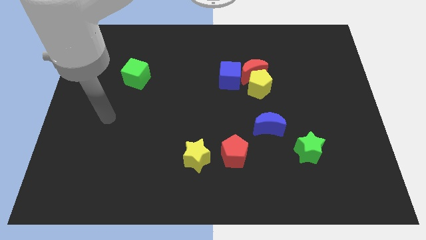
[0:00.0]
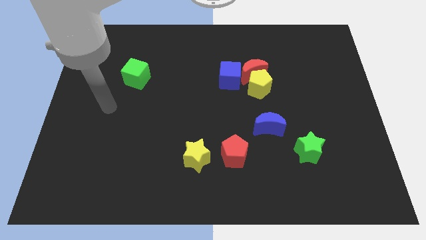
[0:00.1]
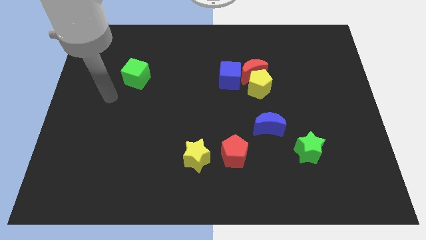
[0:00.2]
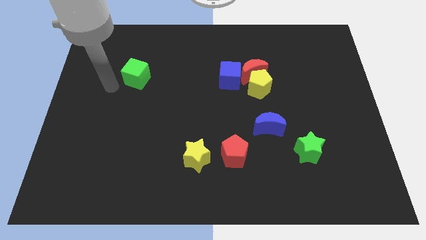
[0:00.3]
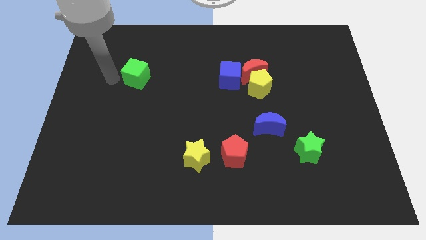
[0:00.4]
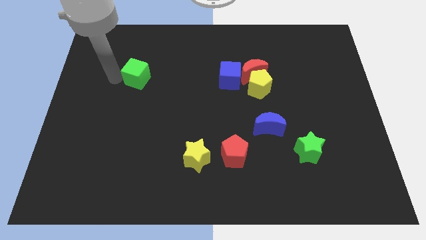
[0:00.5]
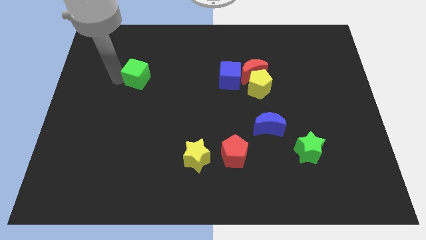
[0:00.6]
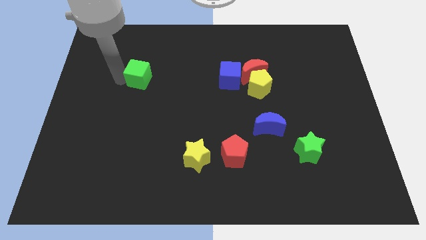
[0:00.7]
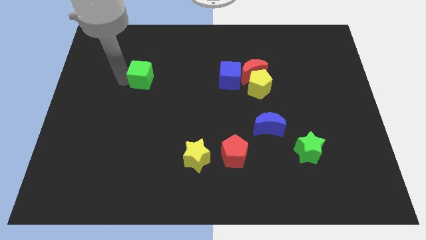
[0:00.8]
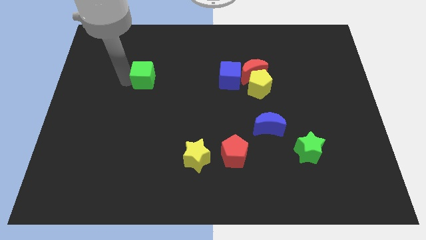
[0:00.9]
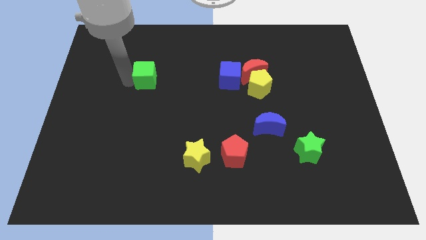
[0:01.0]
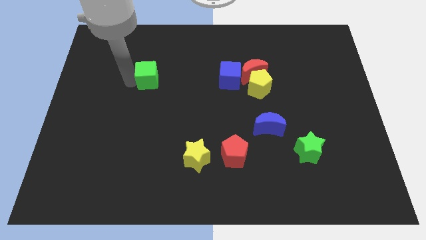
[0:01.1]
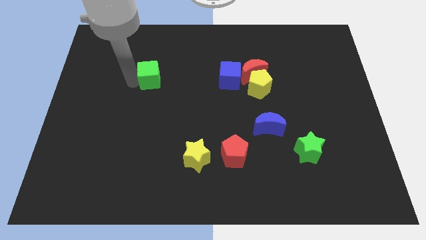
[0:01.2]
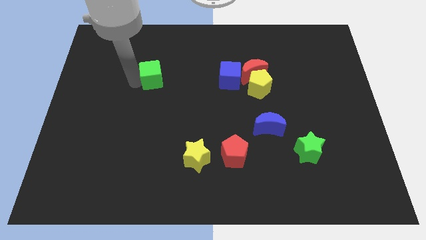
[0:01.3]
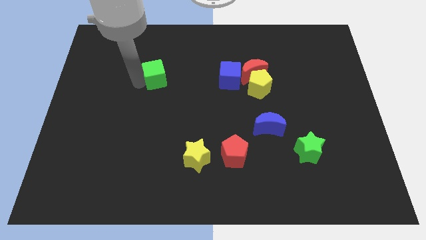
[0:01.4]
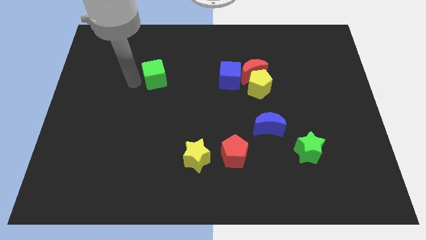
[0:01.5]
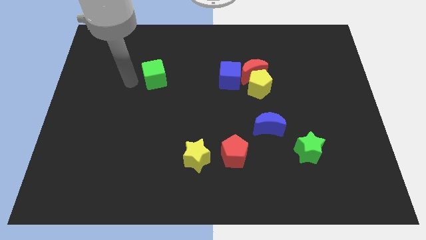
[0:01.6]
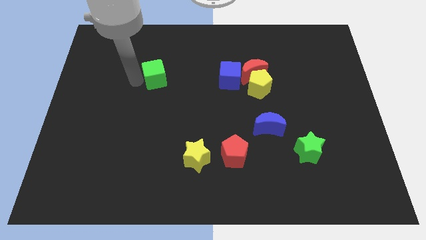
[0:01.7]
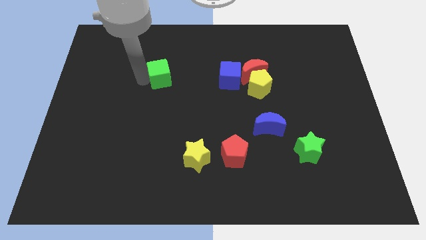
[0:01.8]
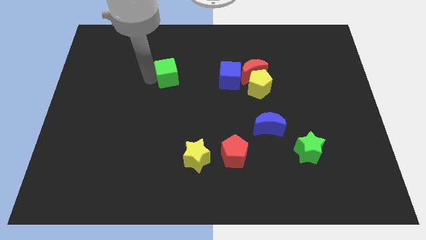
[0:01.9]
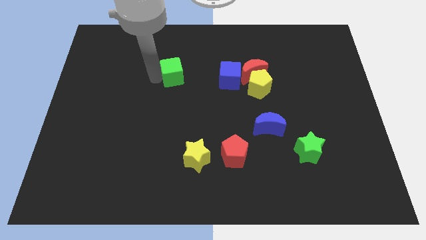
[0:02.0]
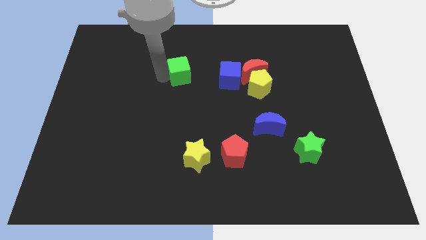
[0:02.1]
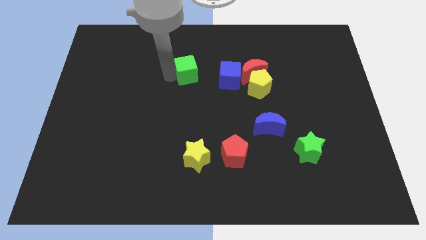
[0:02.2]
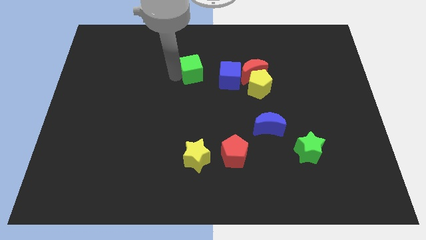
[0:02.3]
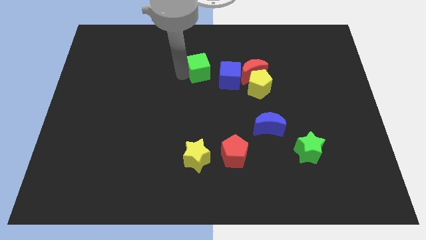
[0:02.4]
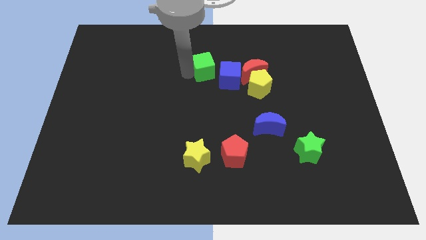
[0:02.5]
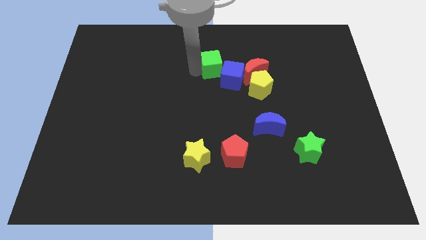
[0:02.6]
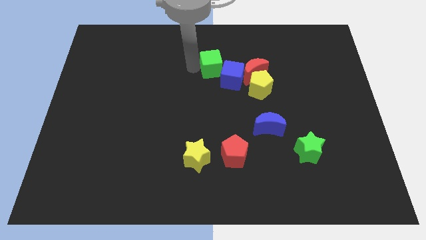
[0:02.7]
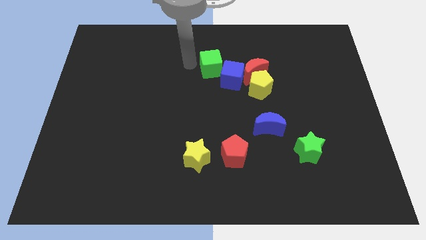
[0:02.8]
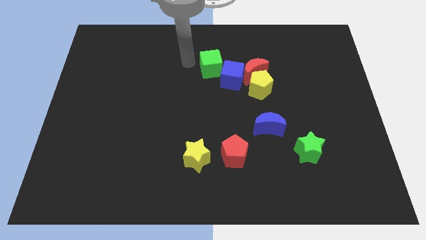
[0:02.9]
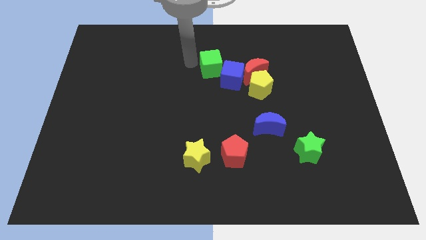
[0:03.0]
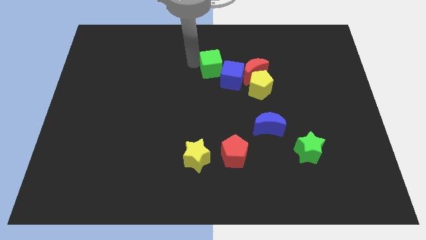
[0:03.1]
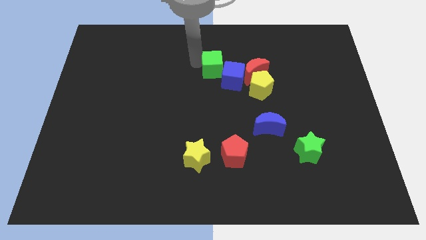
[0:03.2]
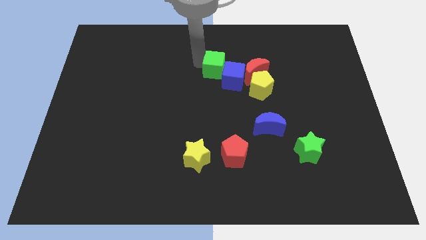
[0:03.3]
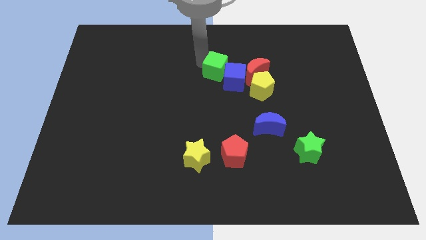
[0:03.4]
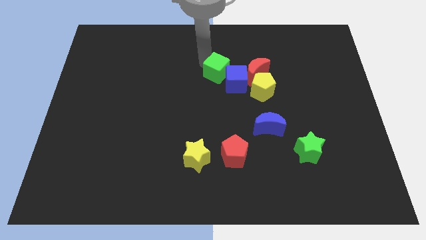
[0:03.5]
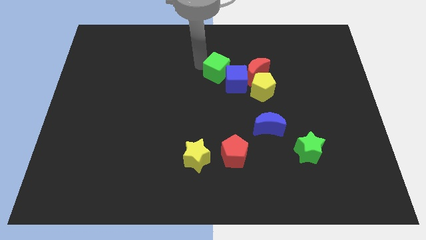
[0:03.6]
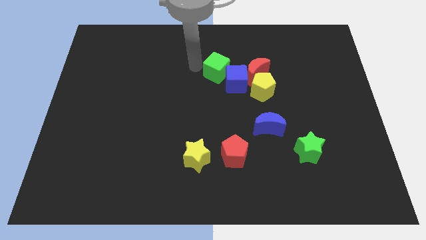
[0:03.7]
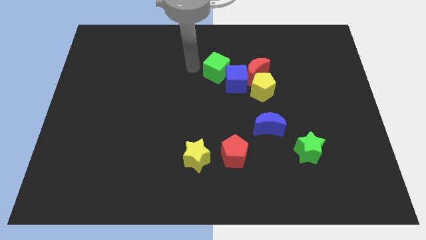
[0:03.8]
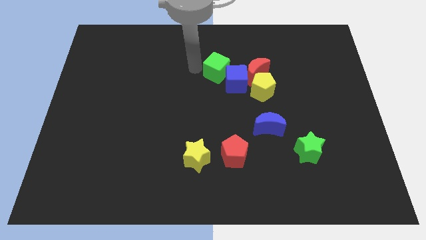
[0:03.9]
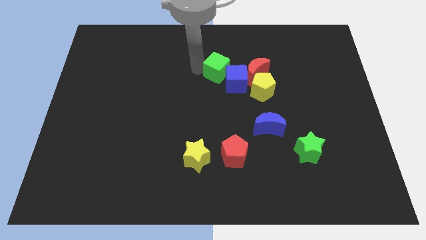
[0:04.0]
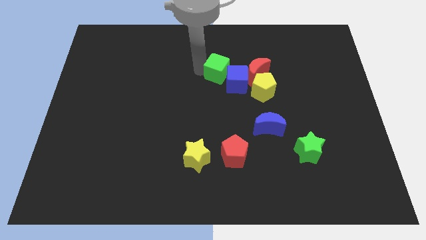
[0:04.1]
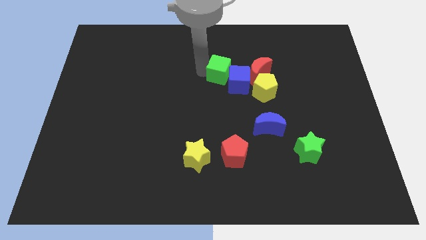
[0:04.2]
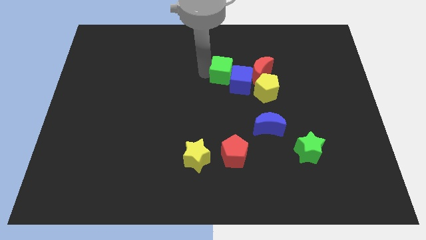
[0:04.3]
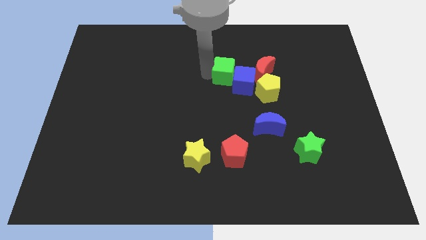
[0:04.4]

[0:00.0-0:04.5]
push the green cube to the top left side of the yellow pentagon

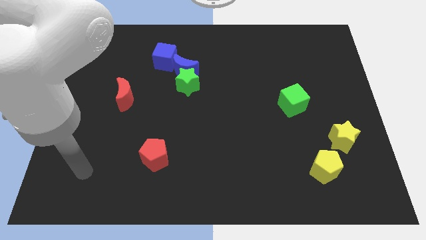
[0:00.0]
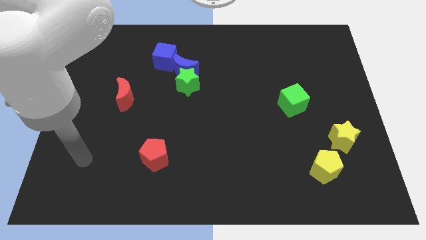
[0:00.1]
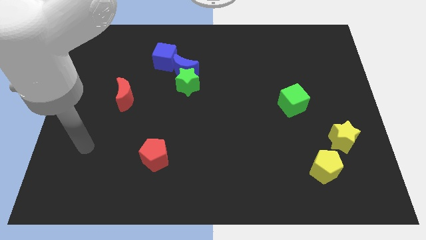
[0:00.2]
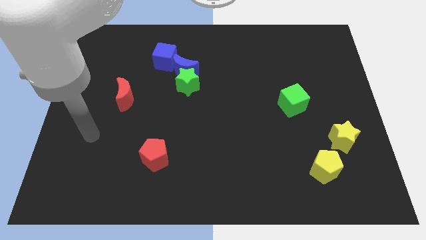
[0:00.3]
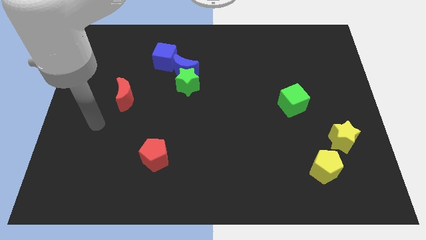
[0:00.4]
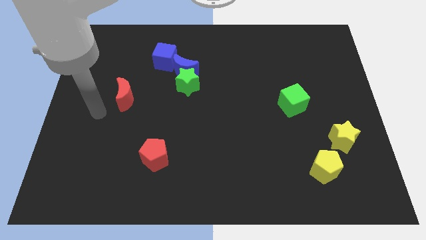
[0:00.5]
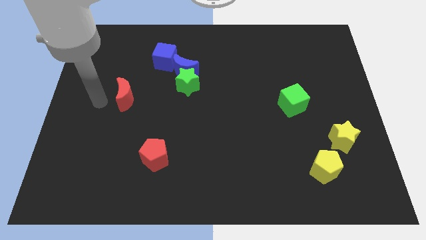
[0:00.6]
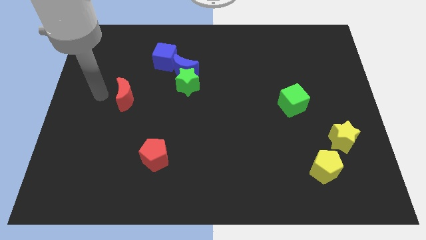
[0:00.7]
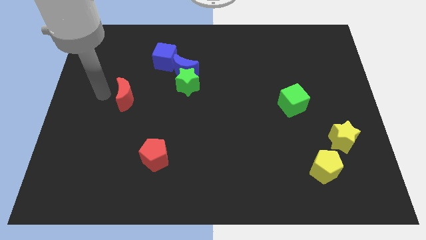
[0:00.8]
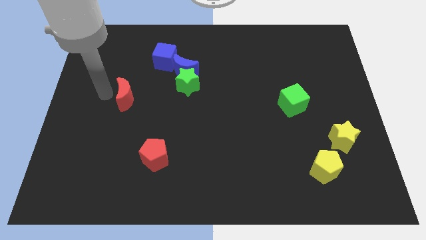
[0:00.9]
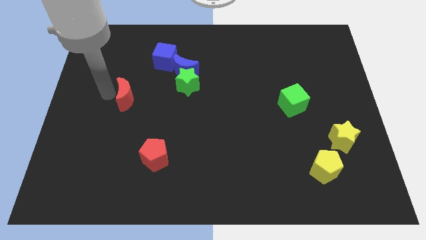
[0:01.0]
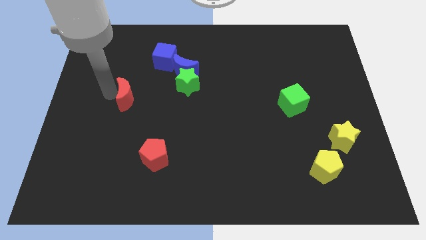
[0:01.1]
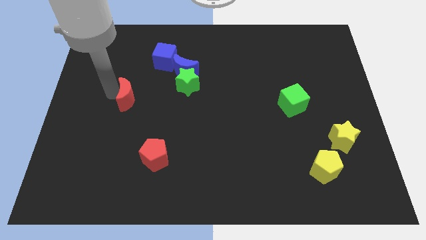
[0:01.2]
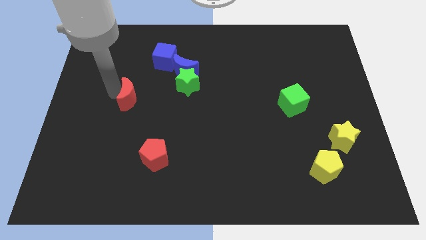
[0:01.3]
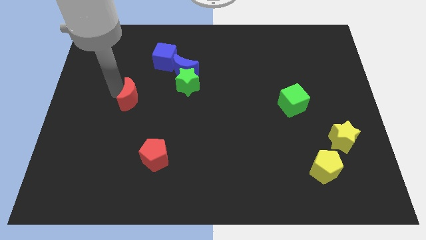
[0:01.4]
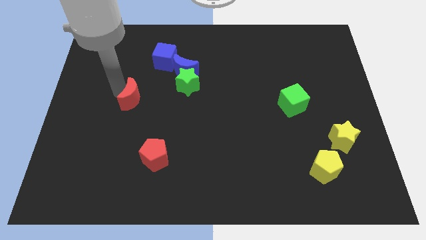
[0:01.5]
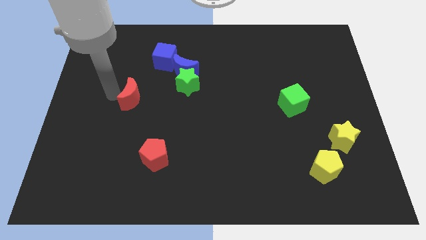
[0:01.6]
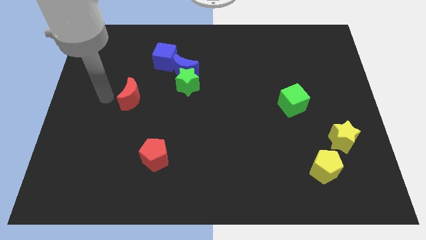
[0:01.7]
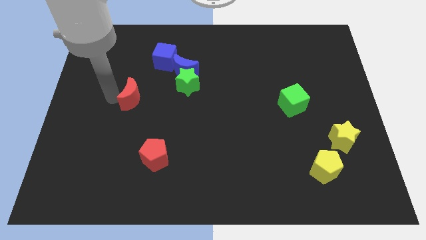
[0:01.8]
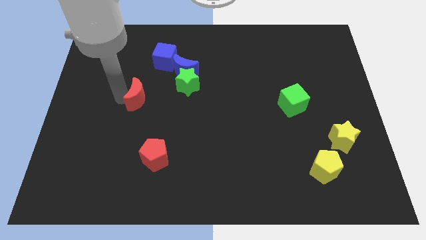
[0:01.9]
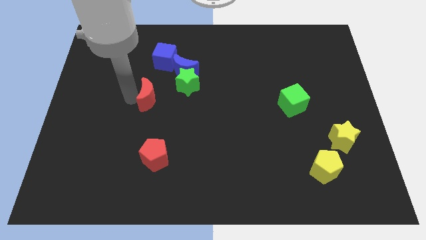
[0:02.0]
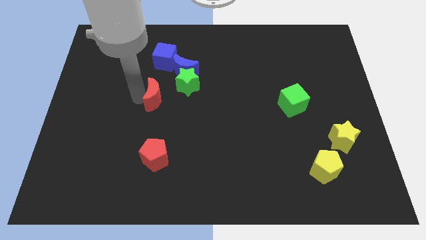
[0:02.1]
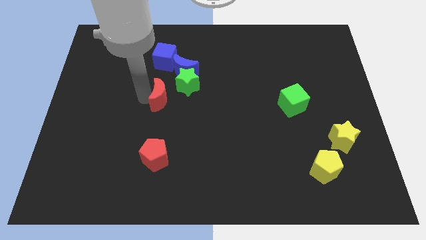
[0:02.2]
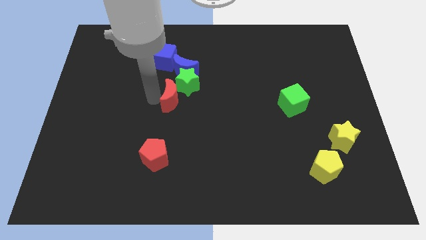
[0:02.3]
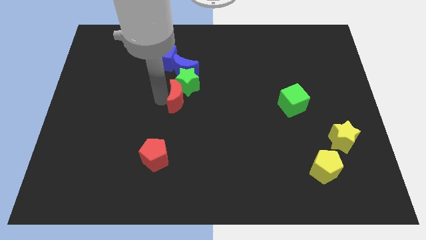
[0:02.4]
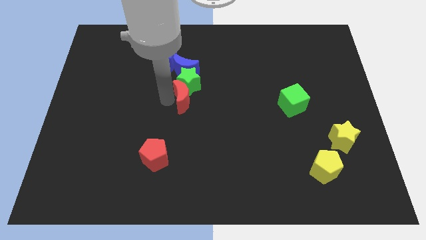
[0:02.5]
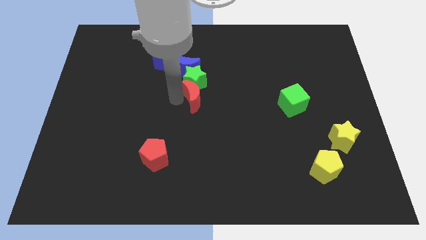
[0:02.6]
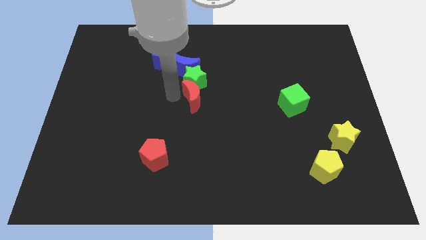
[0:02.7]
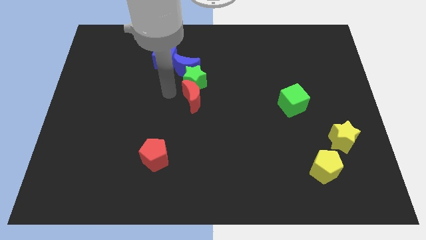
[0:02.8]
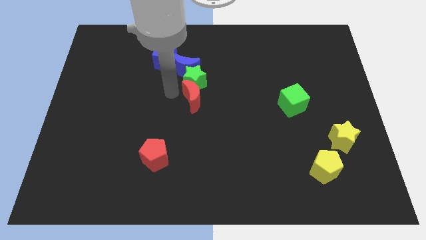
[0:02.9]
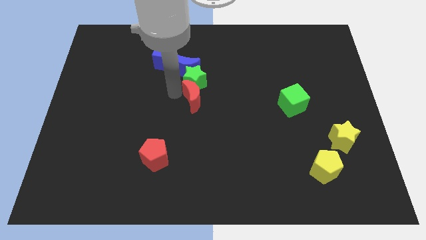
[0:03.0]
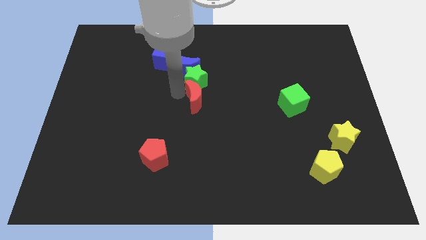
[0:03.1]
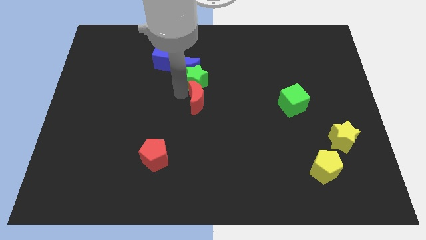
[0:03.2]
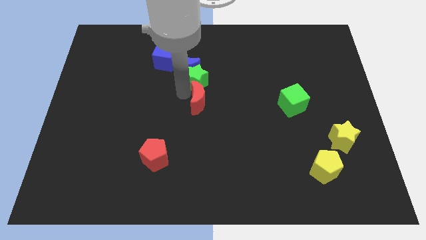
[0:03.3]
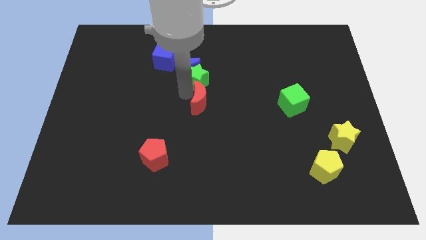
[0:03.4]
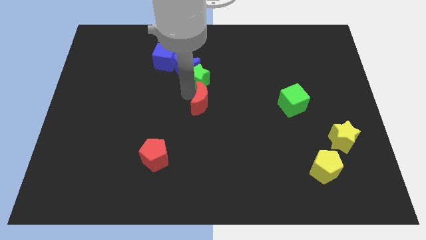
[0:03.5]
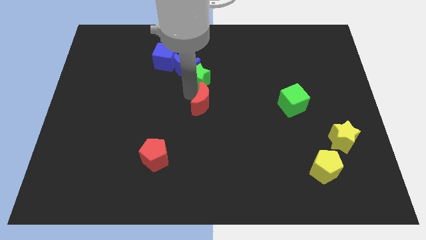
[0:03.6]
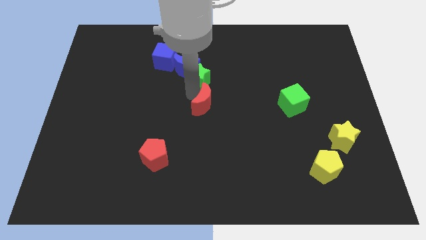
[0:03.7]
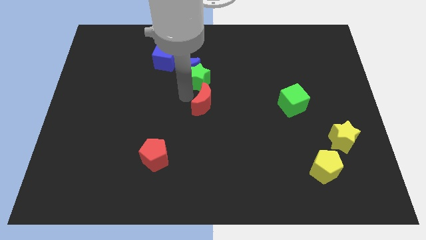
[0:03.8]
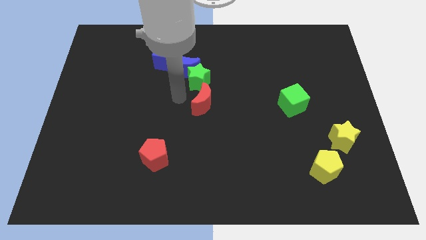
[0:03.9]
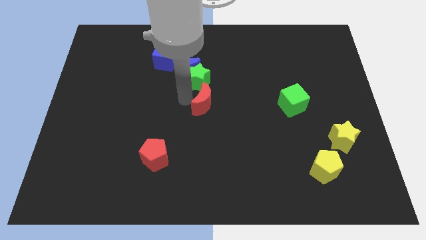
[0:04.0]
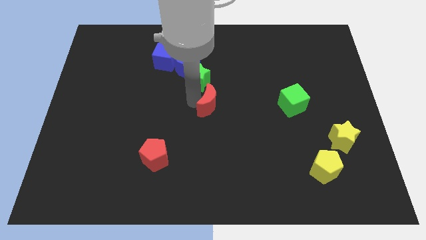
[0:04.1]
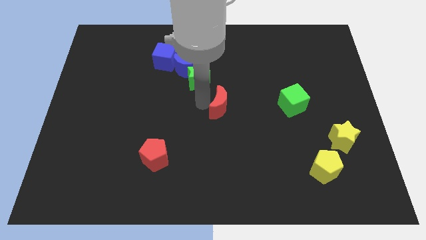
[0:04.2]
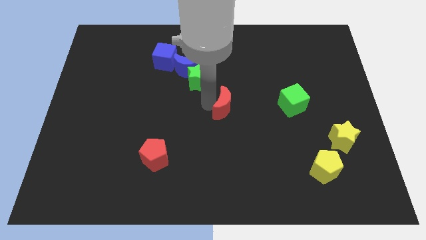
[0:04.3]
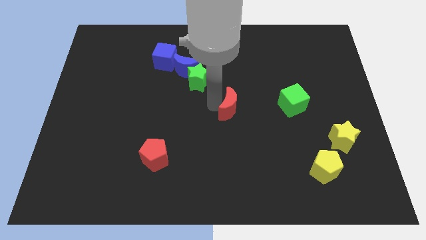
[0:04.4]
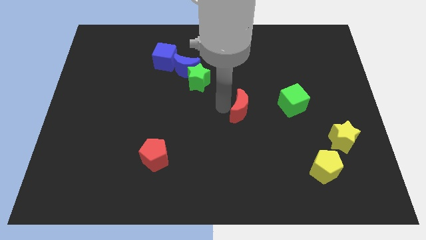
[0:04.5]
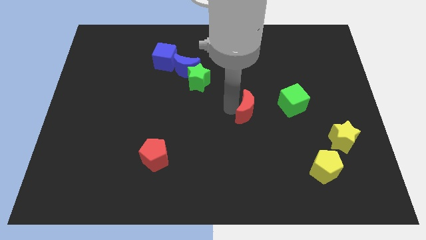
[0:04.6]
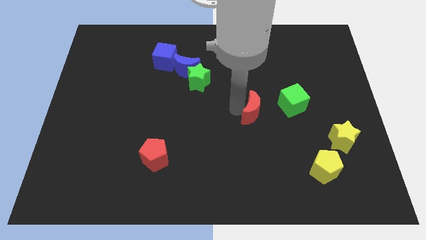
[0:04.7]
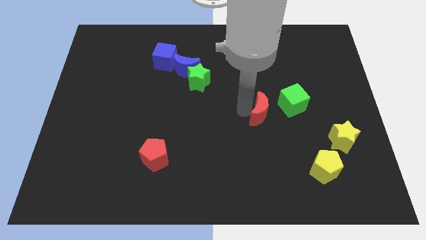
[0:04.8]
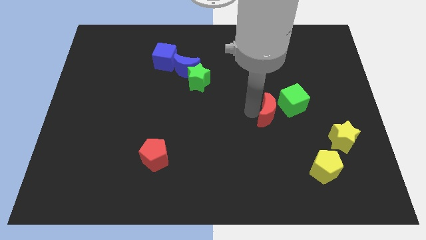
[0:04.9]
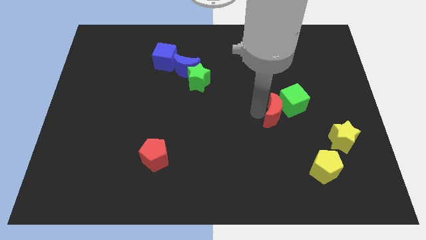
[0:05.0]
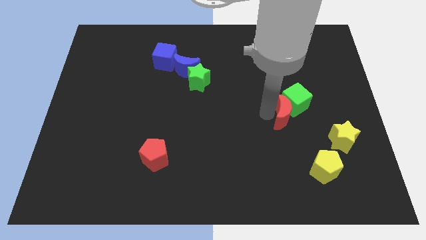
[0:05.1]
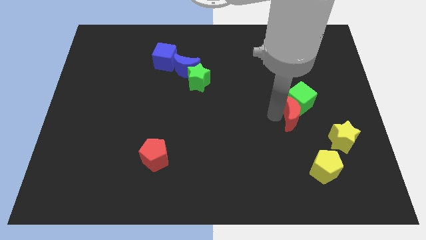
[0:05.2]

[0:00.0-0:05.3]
push the red moon to the top left of the yellow star
